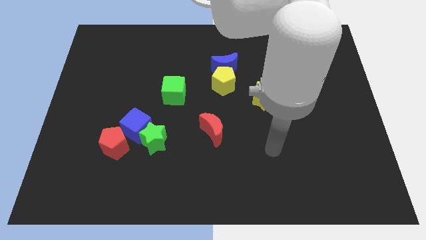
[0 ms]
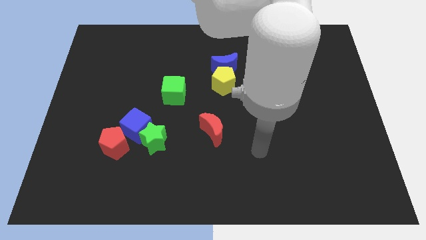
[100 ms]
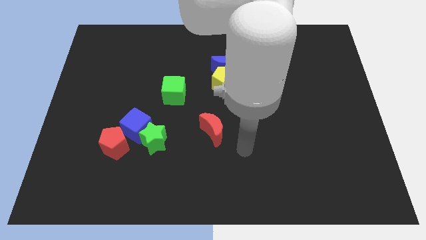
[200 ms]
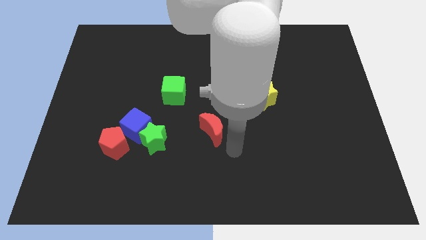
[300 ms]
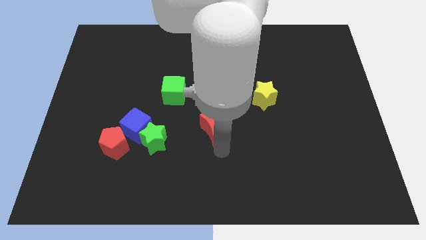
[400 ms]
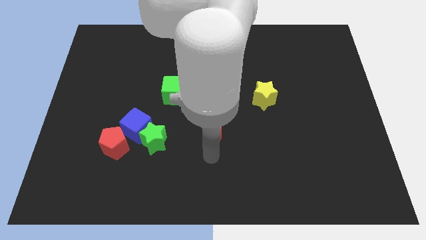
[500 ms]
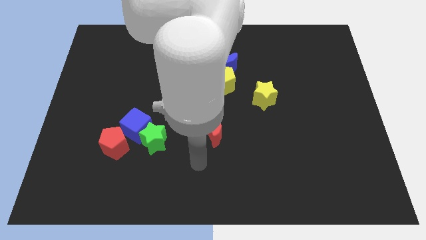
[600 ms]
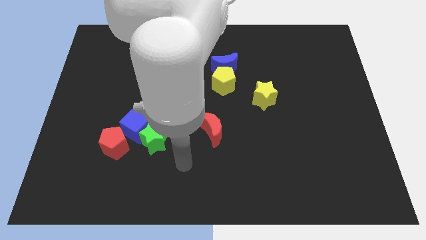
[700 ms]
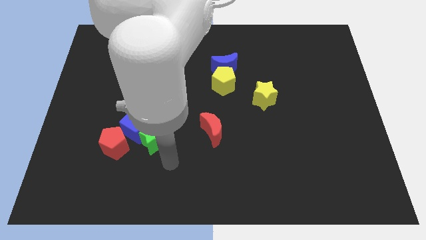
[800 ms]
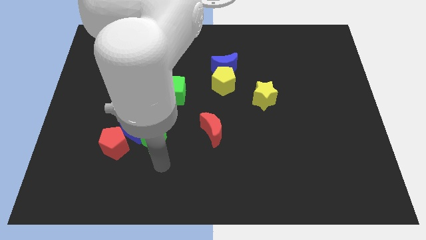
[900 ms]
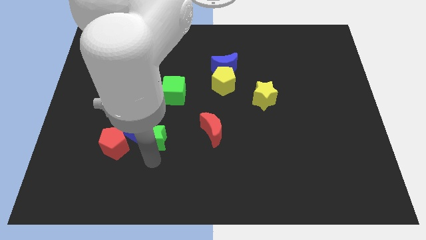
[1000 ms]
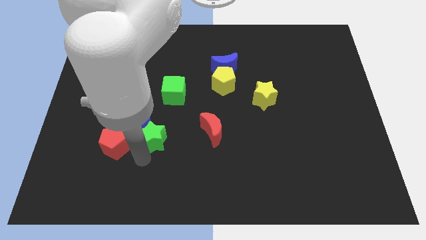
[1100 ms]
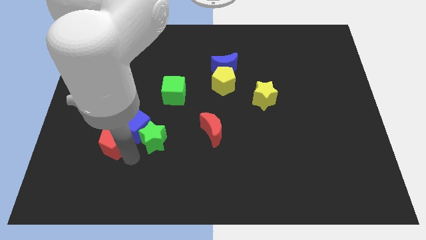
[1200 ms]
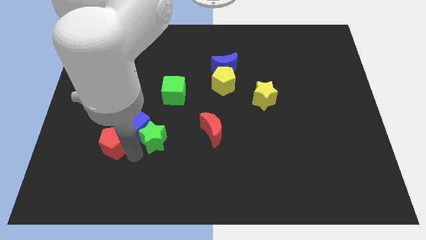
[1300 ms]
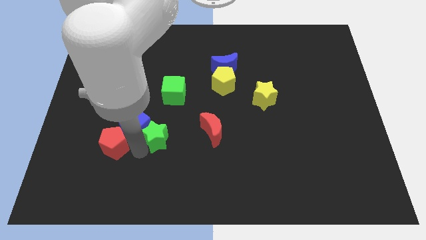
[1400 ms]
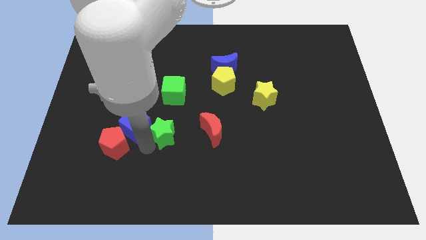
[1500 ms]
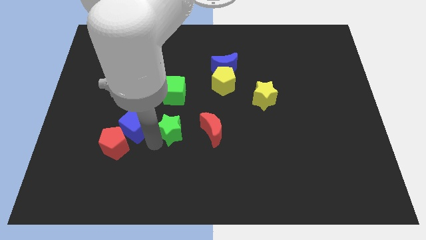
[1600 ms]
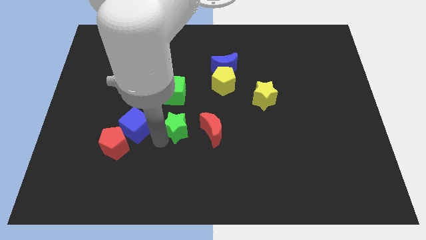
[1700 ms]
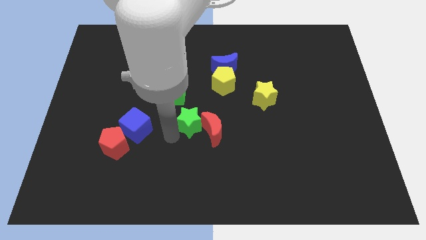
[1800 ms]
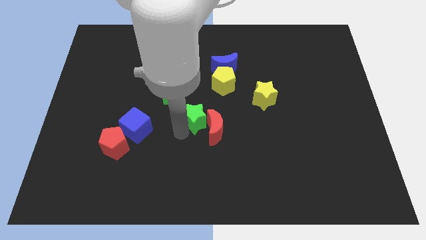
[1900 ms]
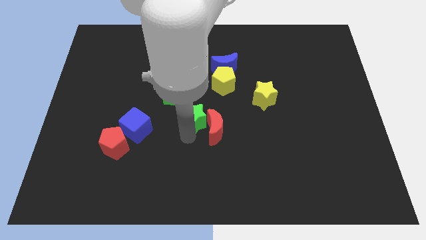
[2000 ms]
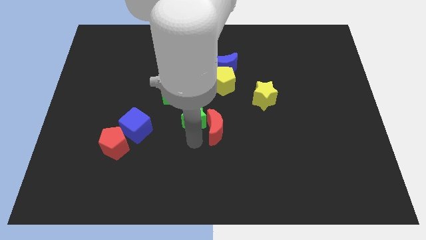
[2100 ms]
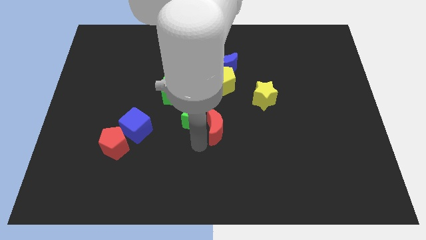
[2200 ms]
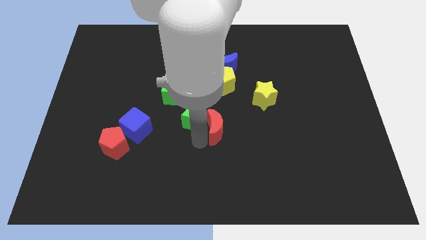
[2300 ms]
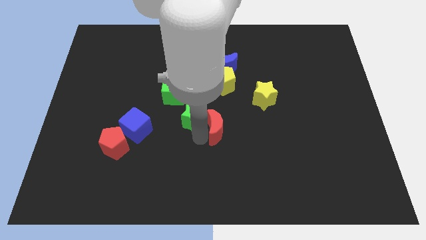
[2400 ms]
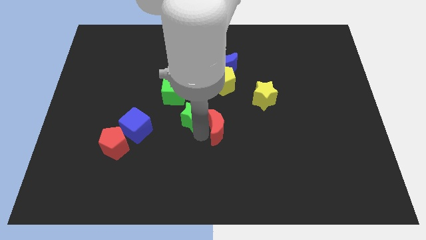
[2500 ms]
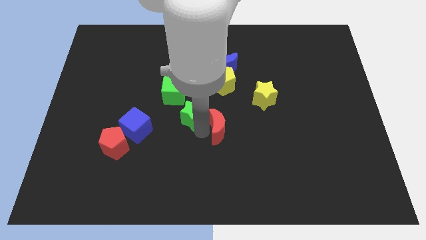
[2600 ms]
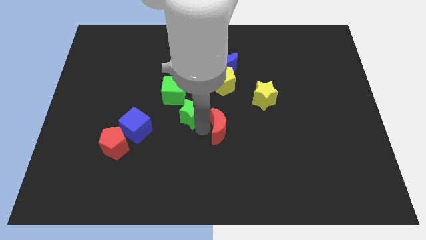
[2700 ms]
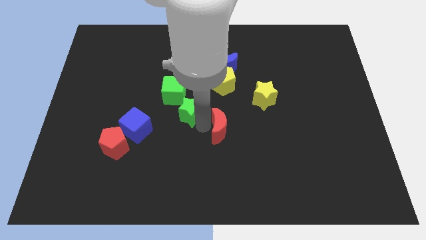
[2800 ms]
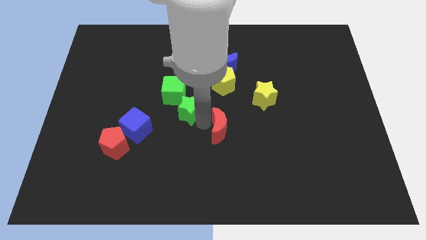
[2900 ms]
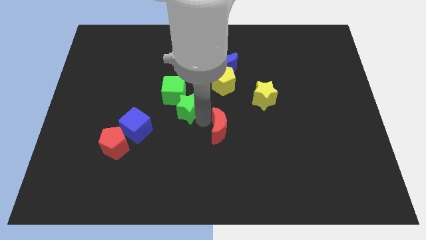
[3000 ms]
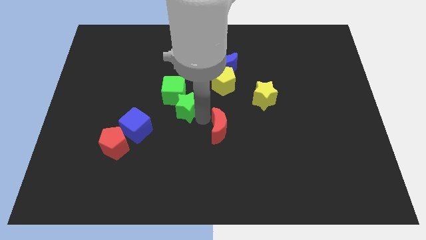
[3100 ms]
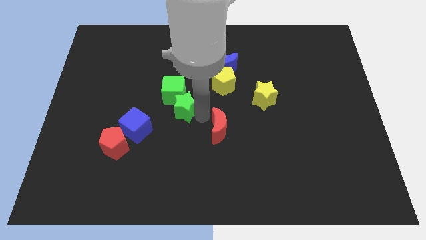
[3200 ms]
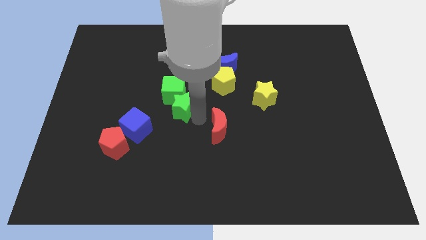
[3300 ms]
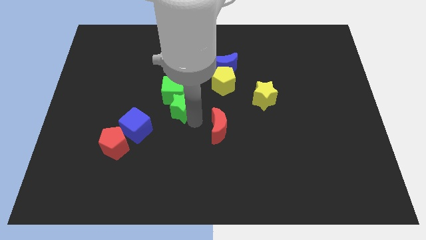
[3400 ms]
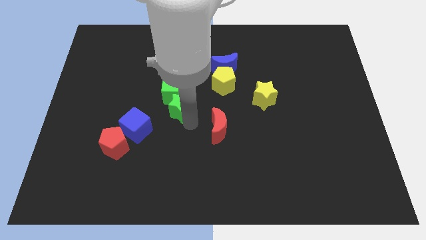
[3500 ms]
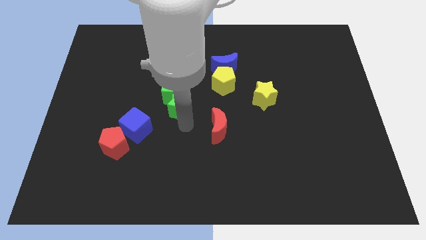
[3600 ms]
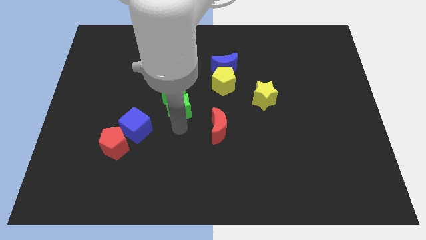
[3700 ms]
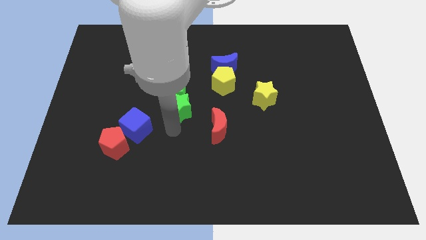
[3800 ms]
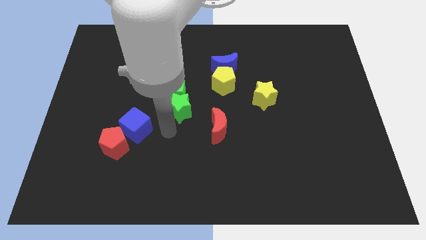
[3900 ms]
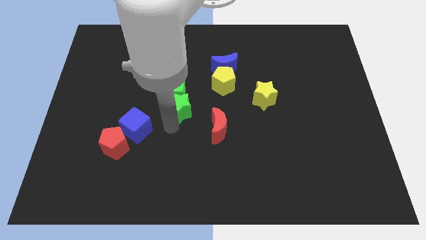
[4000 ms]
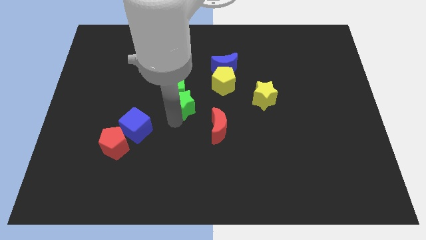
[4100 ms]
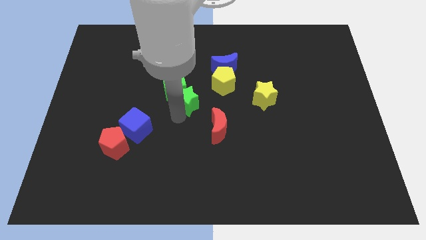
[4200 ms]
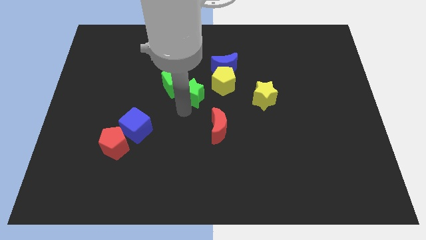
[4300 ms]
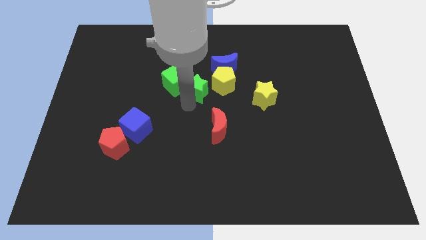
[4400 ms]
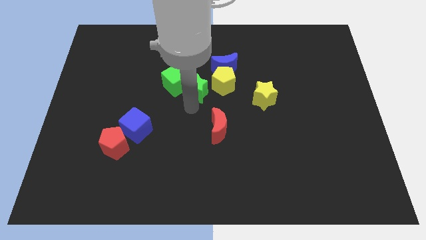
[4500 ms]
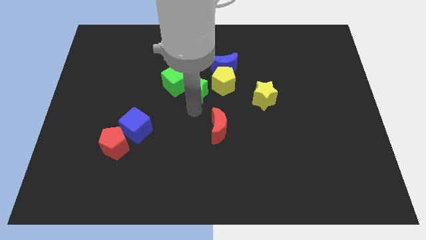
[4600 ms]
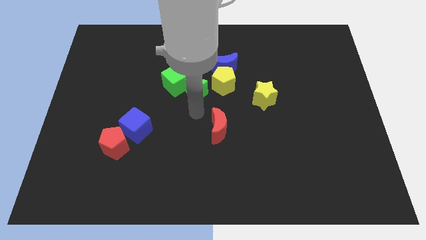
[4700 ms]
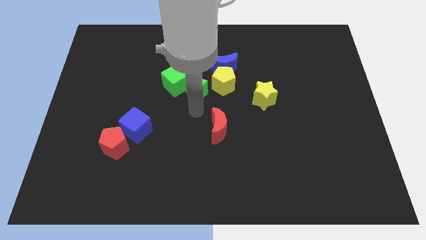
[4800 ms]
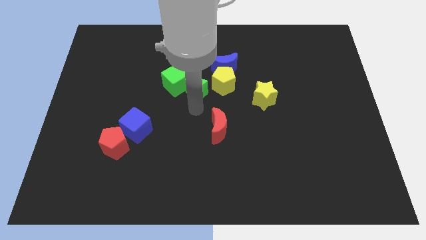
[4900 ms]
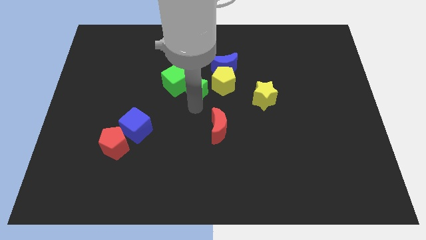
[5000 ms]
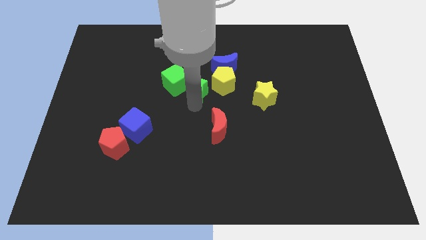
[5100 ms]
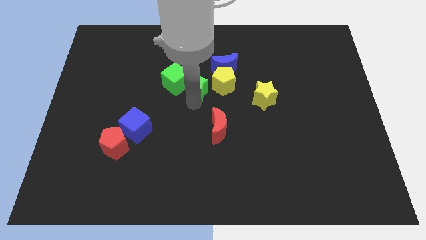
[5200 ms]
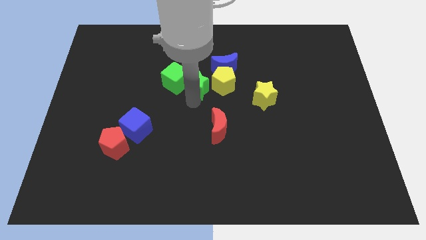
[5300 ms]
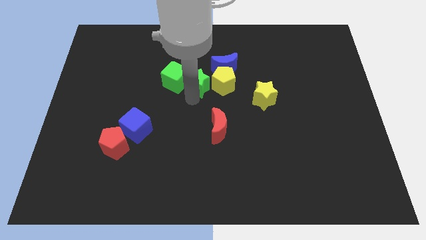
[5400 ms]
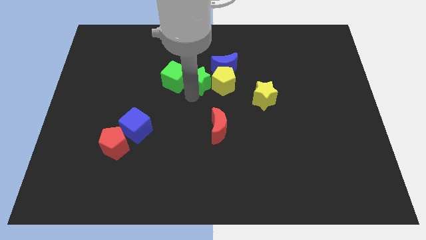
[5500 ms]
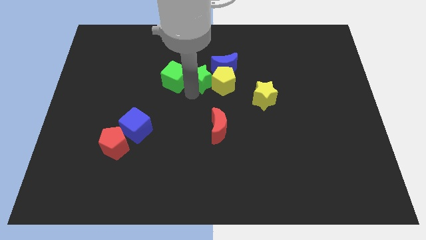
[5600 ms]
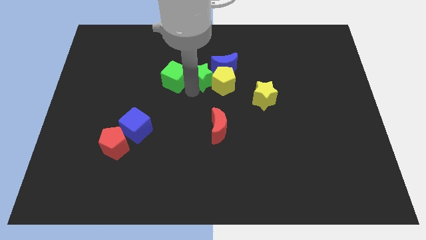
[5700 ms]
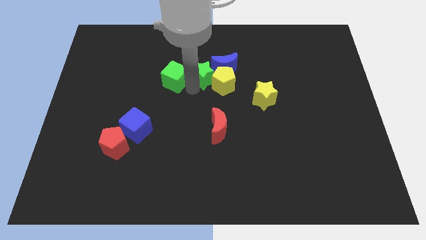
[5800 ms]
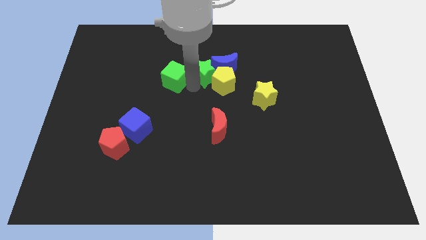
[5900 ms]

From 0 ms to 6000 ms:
move the green star diagonally up and to the right

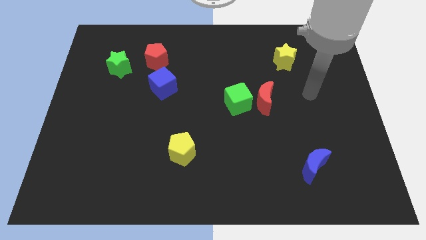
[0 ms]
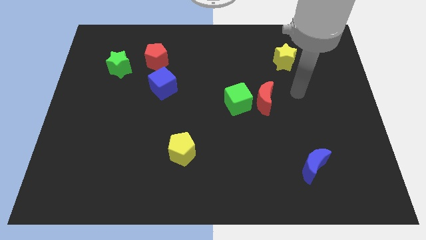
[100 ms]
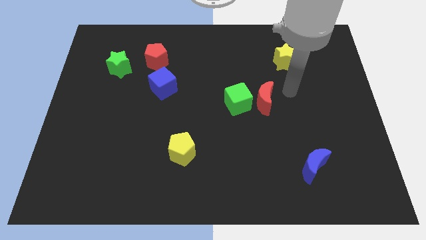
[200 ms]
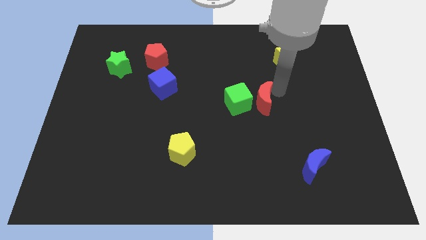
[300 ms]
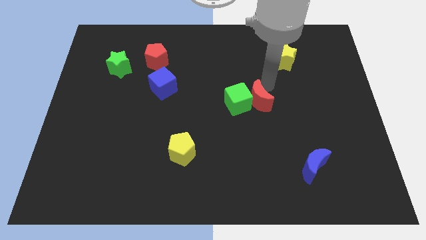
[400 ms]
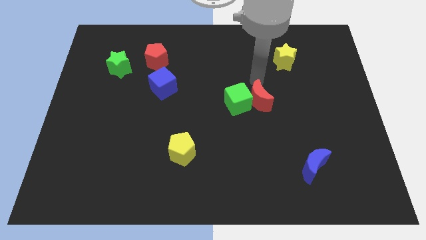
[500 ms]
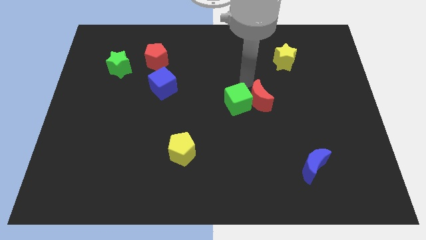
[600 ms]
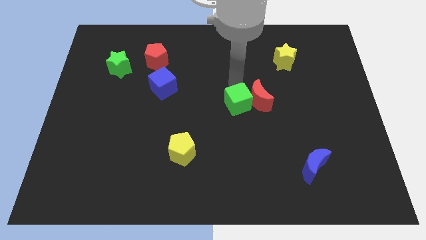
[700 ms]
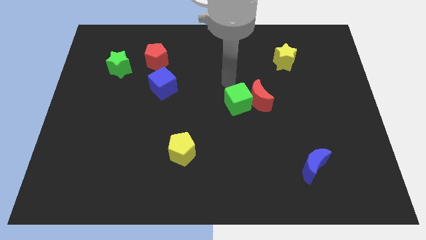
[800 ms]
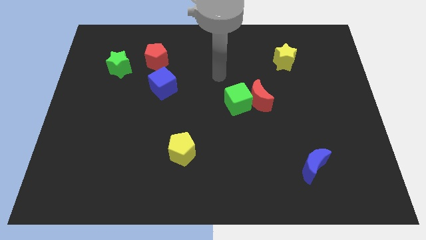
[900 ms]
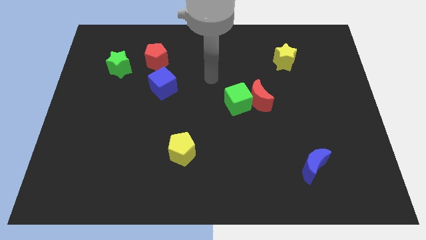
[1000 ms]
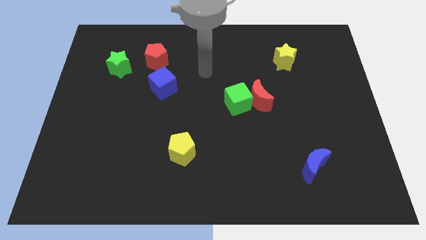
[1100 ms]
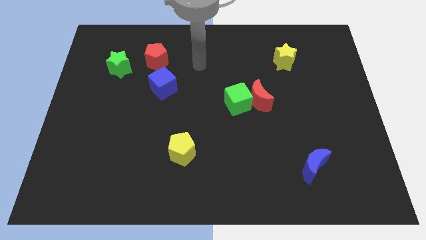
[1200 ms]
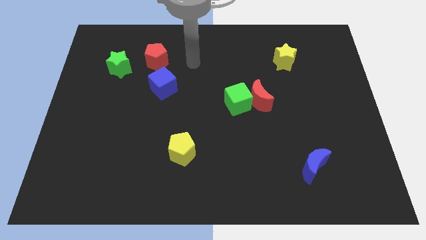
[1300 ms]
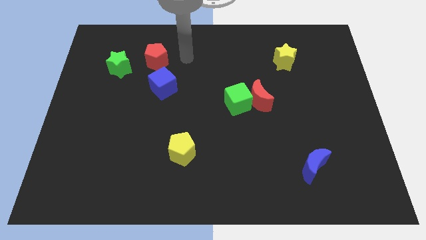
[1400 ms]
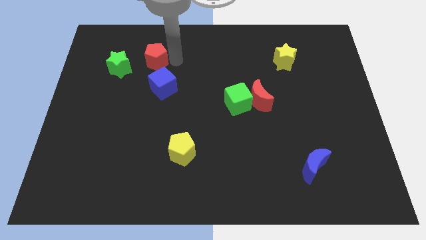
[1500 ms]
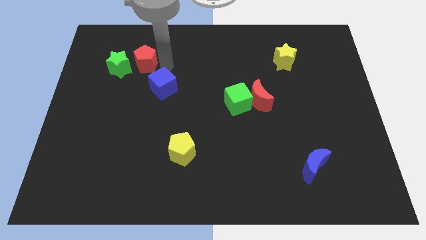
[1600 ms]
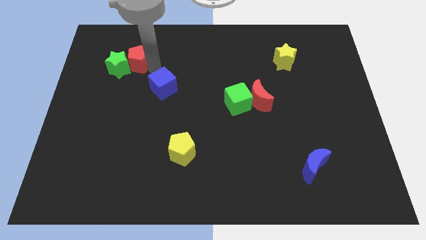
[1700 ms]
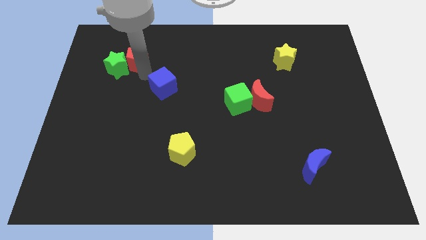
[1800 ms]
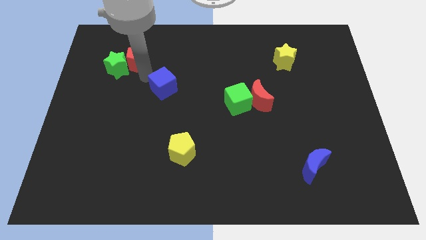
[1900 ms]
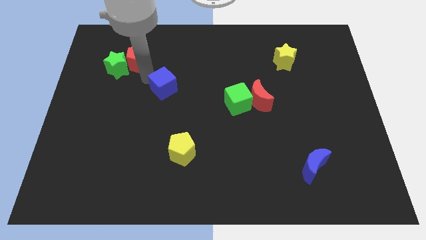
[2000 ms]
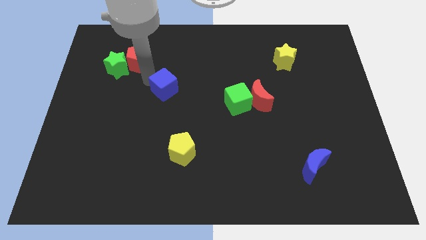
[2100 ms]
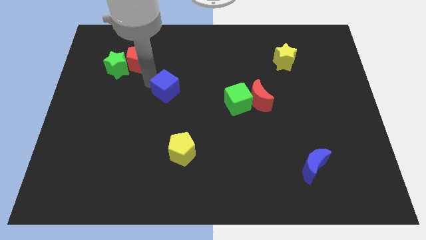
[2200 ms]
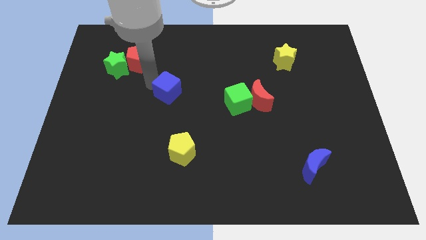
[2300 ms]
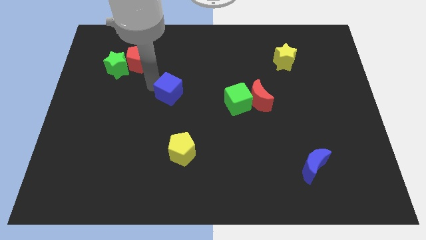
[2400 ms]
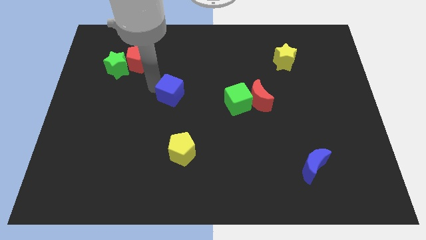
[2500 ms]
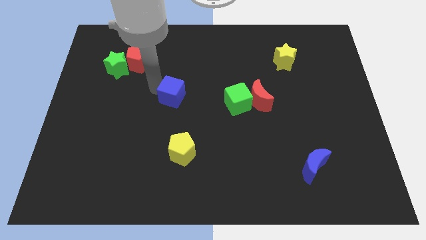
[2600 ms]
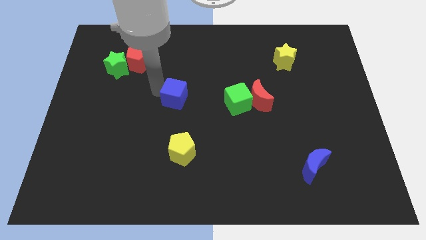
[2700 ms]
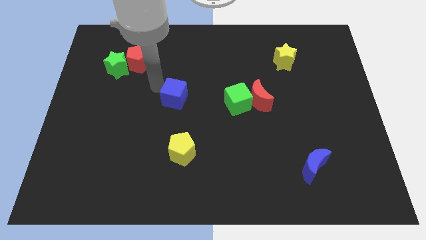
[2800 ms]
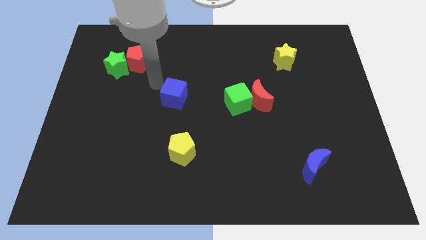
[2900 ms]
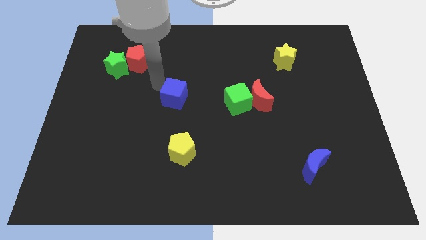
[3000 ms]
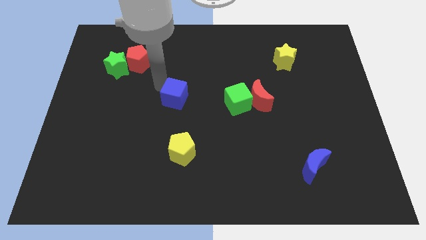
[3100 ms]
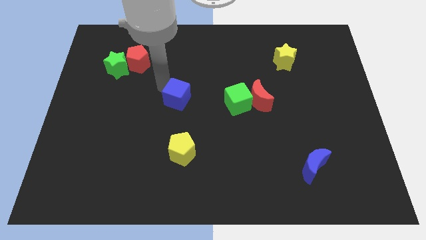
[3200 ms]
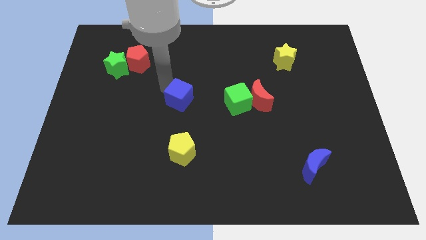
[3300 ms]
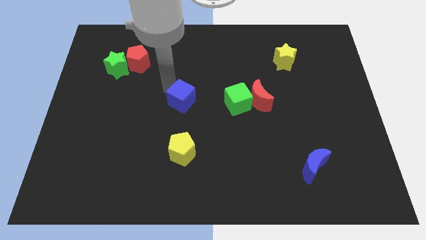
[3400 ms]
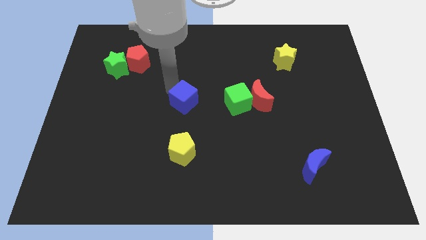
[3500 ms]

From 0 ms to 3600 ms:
slightly push the blue cube downwards and right
